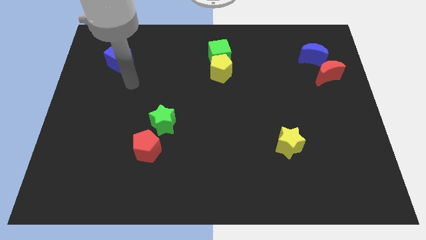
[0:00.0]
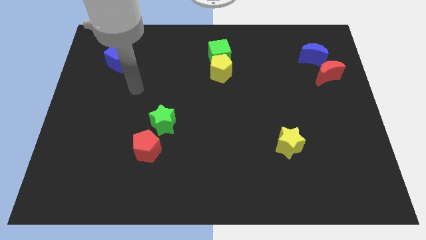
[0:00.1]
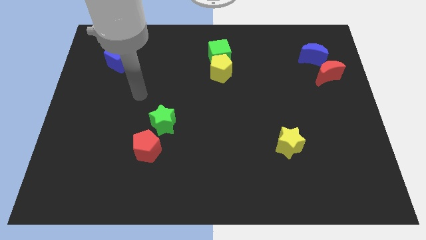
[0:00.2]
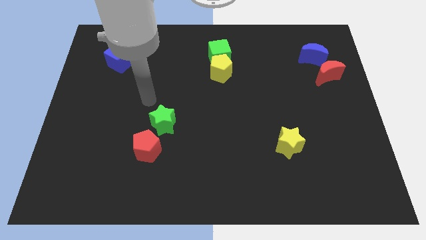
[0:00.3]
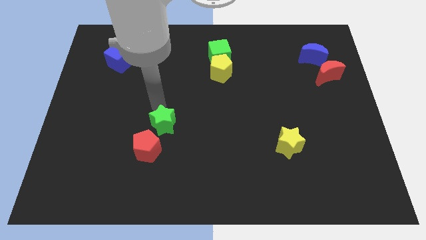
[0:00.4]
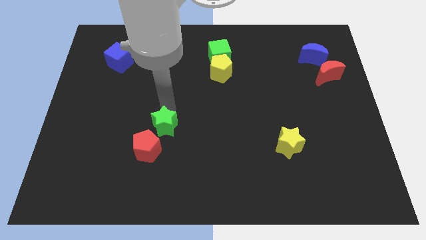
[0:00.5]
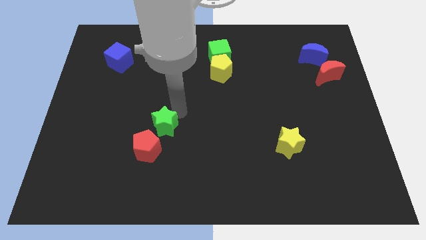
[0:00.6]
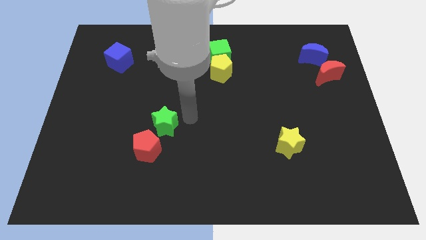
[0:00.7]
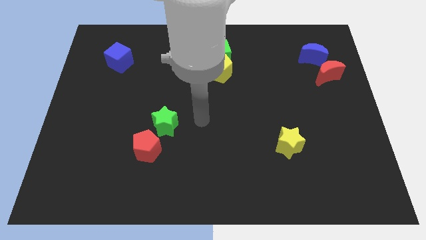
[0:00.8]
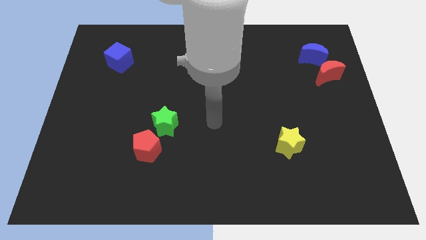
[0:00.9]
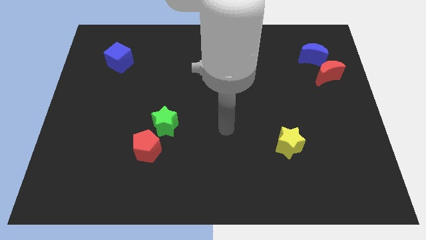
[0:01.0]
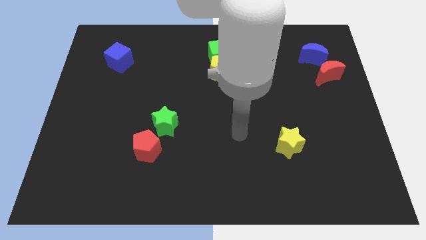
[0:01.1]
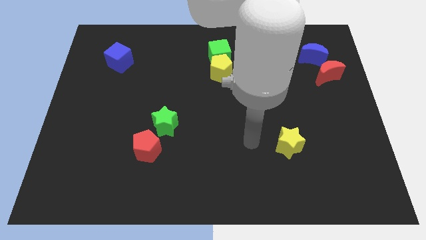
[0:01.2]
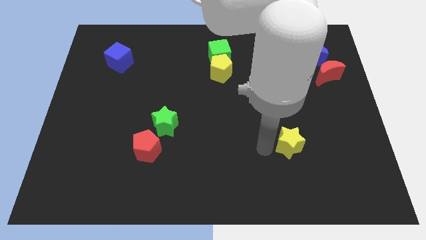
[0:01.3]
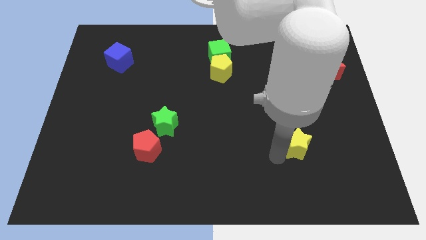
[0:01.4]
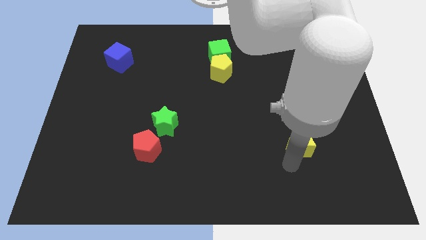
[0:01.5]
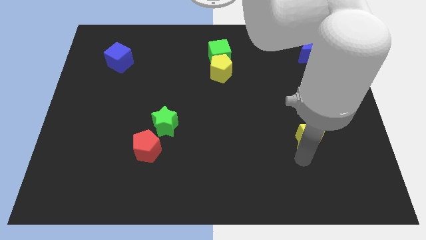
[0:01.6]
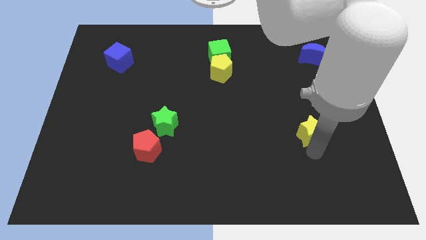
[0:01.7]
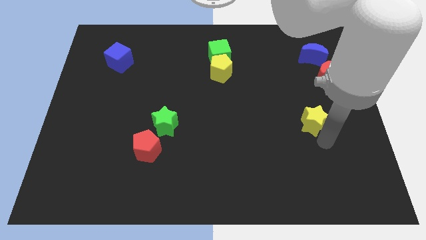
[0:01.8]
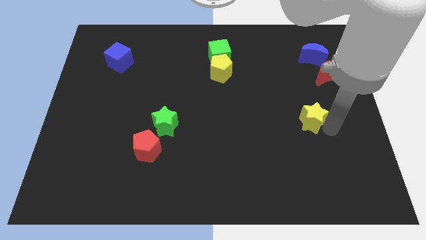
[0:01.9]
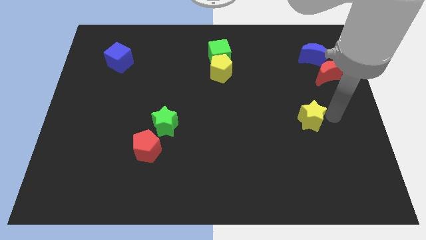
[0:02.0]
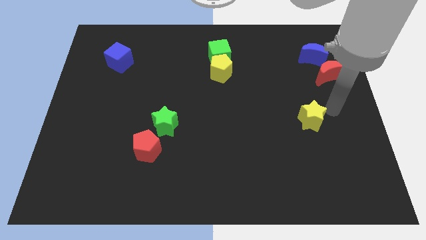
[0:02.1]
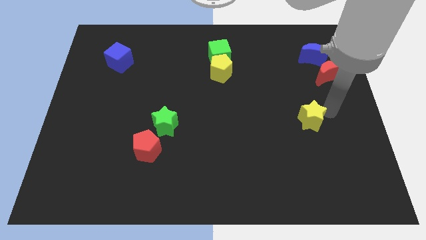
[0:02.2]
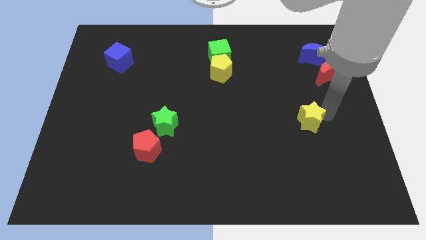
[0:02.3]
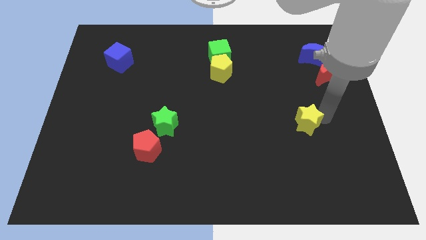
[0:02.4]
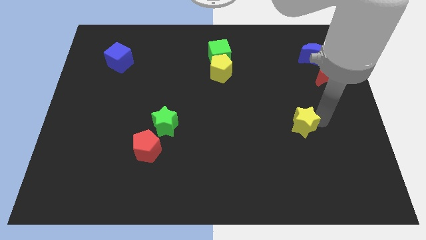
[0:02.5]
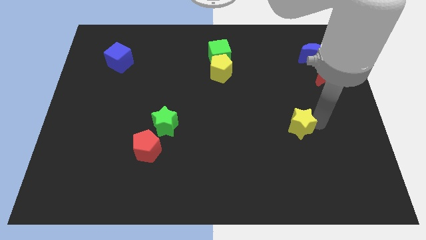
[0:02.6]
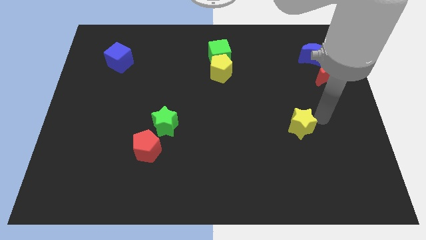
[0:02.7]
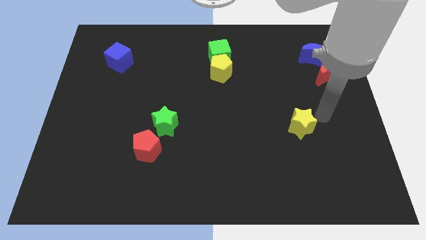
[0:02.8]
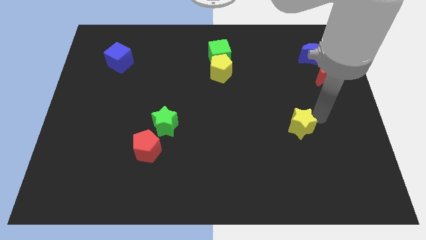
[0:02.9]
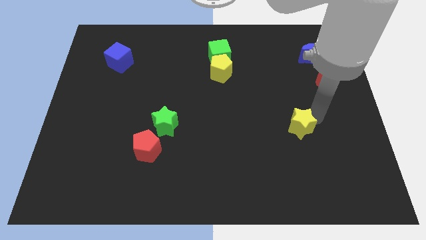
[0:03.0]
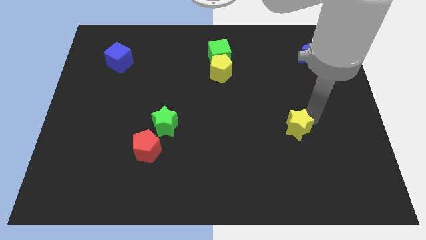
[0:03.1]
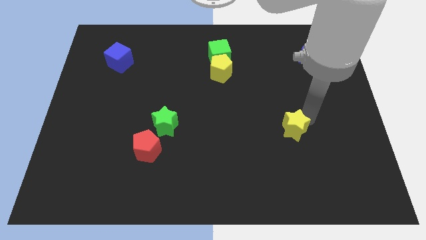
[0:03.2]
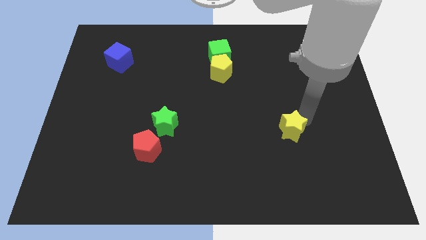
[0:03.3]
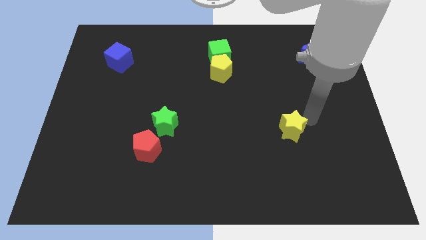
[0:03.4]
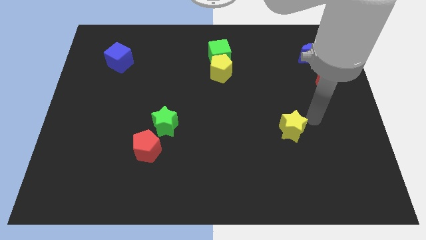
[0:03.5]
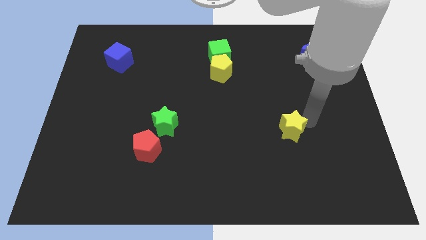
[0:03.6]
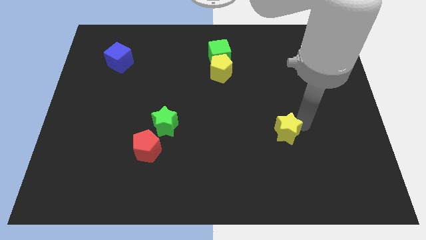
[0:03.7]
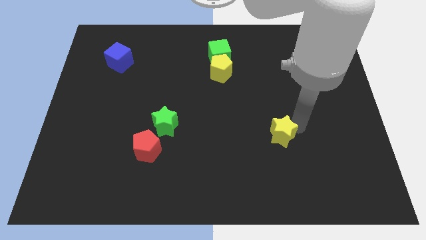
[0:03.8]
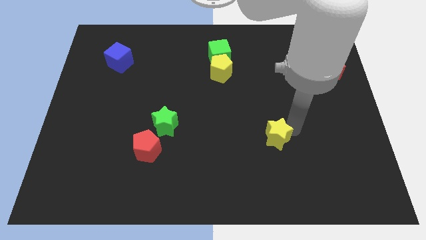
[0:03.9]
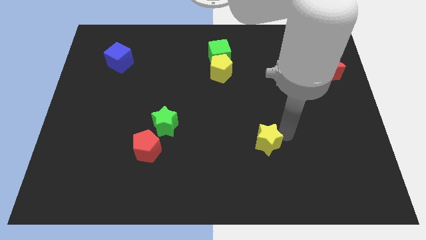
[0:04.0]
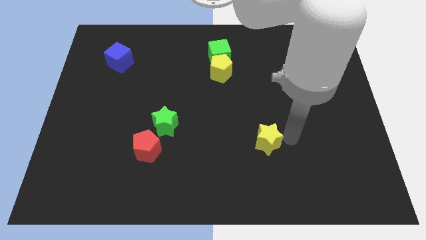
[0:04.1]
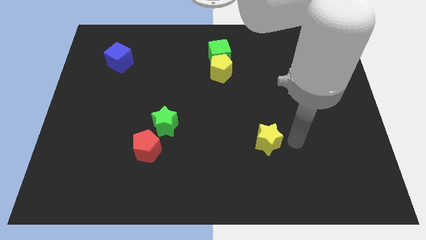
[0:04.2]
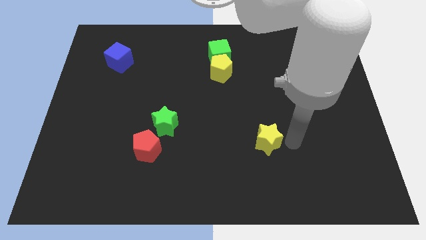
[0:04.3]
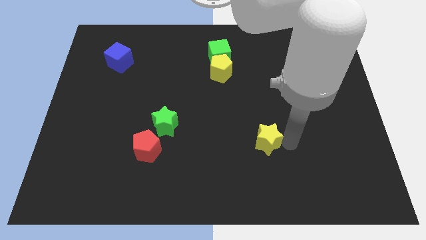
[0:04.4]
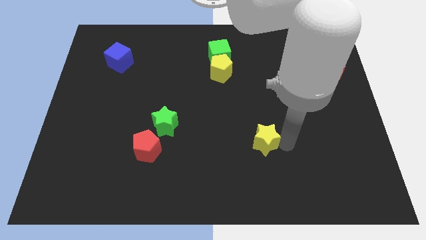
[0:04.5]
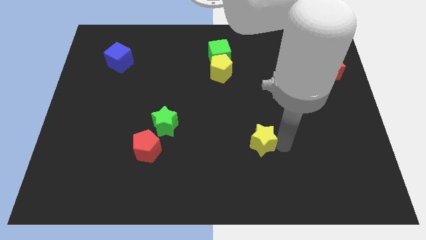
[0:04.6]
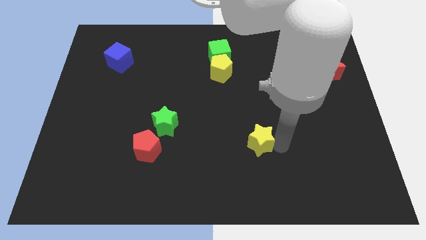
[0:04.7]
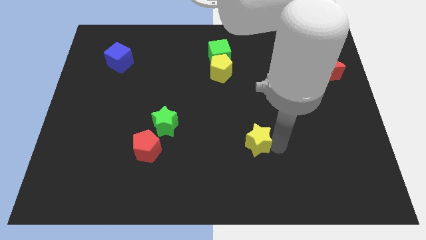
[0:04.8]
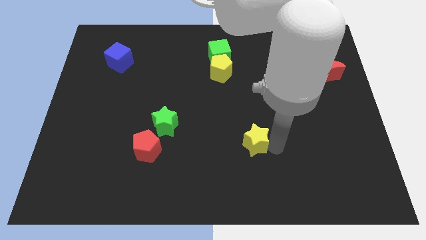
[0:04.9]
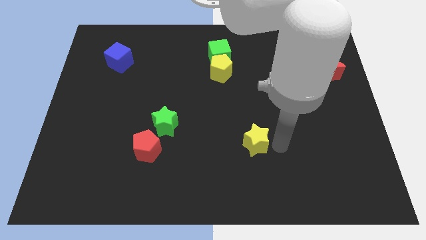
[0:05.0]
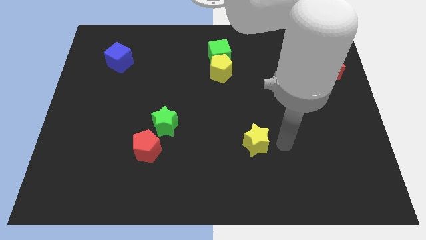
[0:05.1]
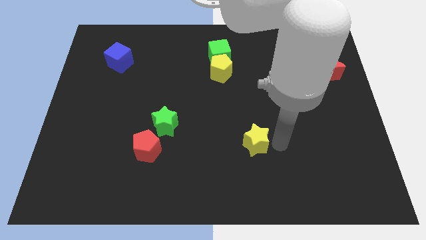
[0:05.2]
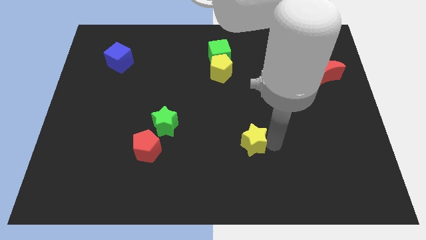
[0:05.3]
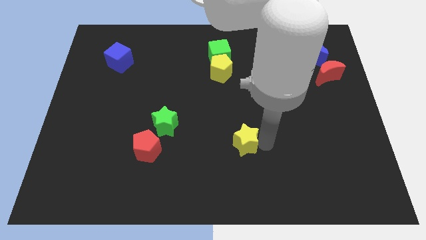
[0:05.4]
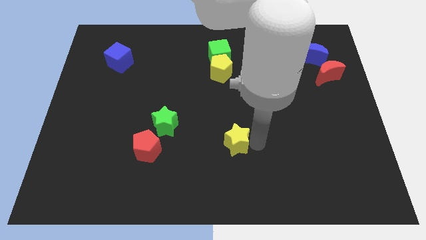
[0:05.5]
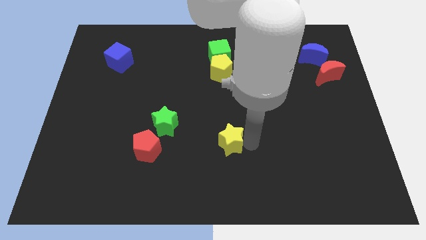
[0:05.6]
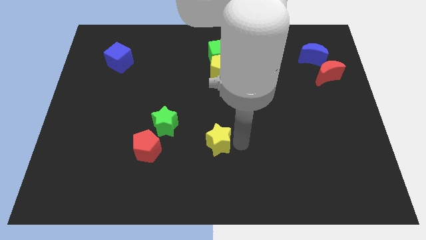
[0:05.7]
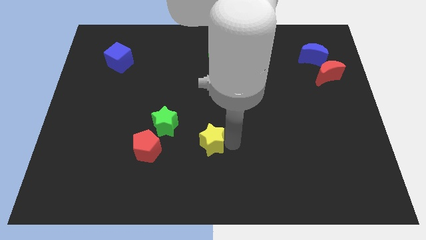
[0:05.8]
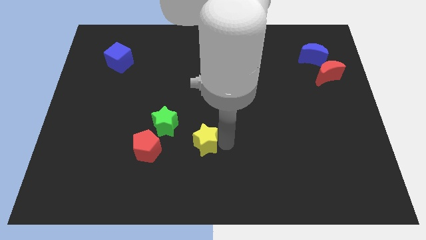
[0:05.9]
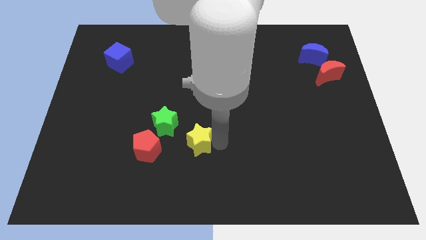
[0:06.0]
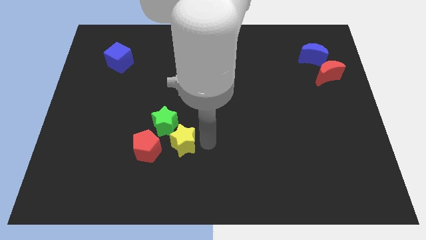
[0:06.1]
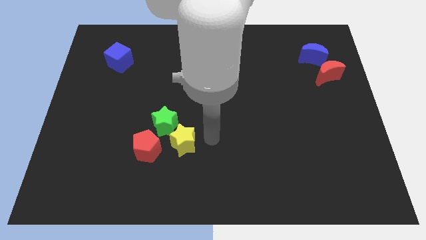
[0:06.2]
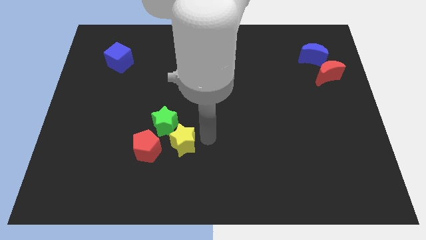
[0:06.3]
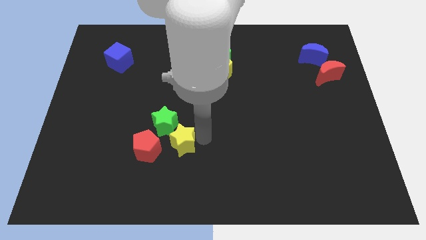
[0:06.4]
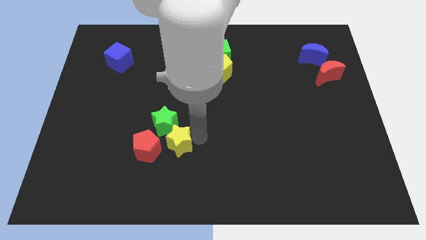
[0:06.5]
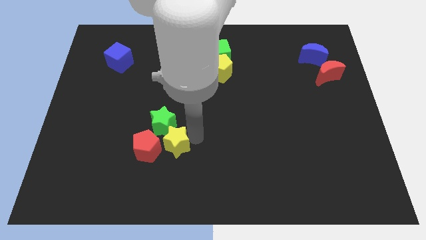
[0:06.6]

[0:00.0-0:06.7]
slide the yellow star next to the red pentagon
